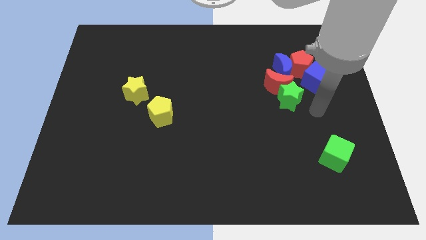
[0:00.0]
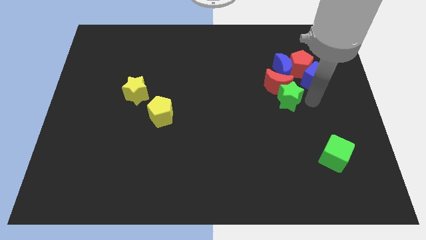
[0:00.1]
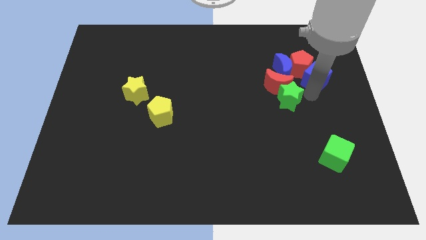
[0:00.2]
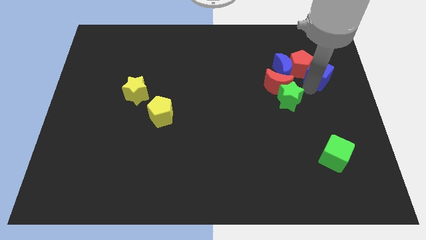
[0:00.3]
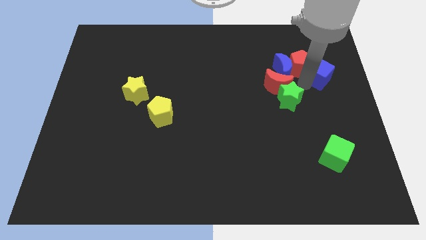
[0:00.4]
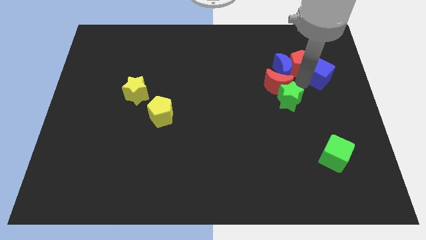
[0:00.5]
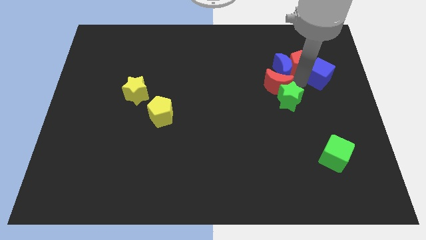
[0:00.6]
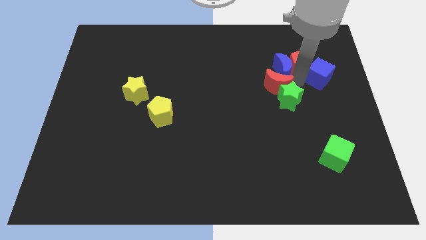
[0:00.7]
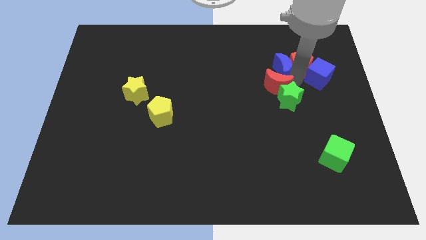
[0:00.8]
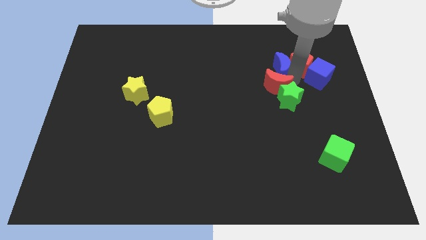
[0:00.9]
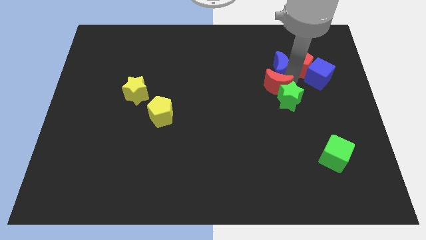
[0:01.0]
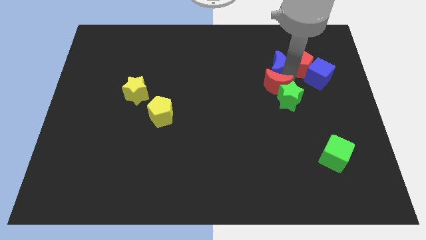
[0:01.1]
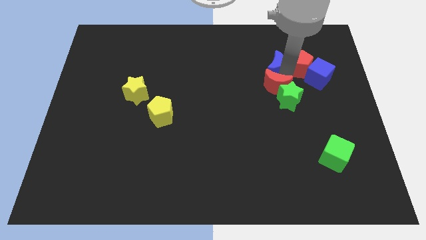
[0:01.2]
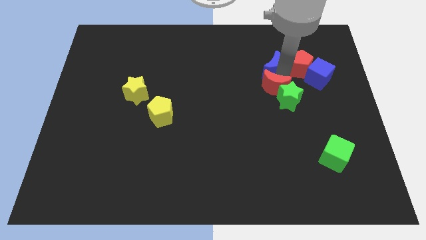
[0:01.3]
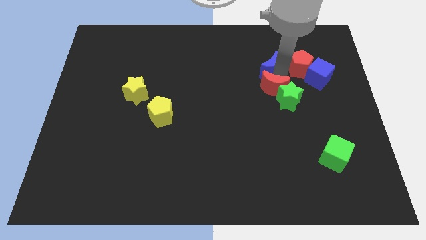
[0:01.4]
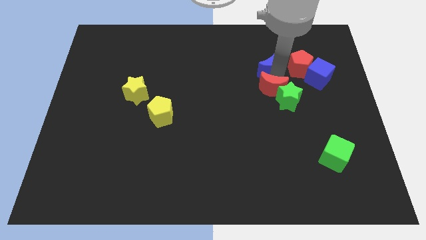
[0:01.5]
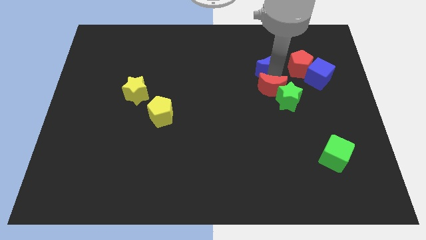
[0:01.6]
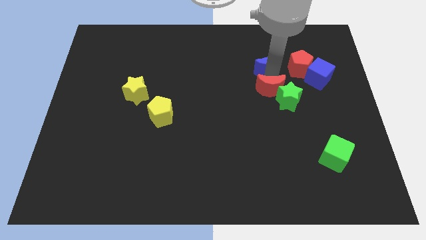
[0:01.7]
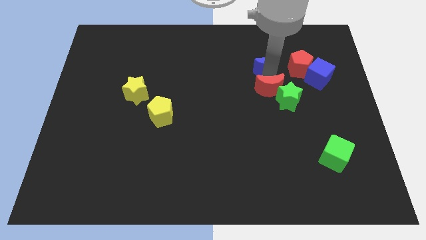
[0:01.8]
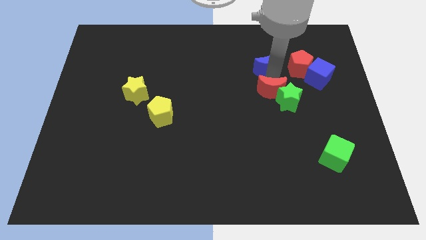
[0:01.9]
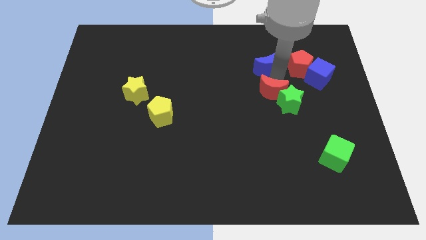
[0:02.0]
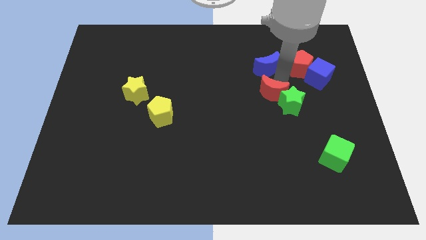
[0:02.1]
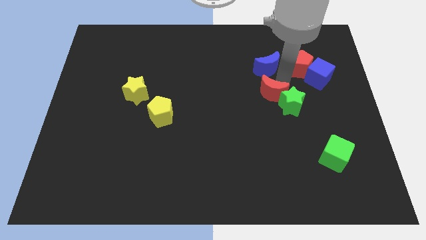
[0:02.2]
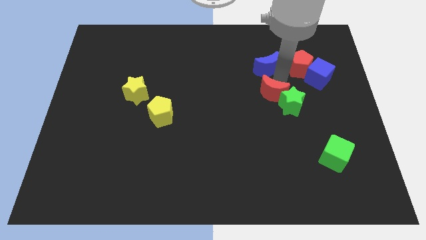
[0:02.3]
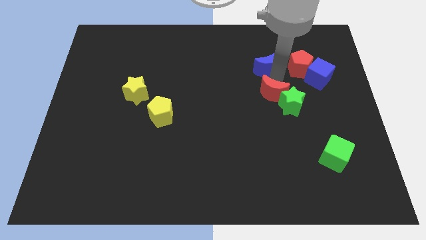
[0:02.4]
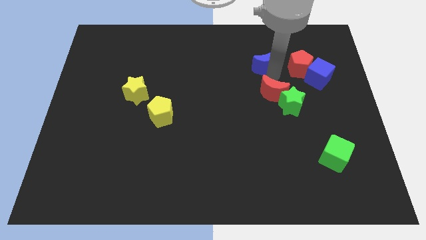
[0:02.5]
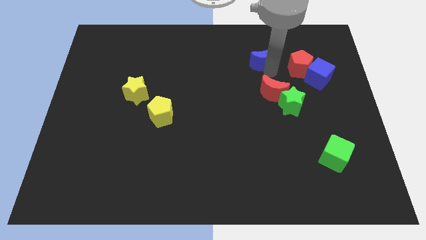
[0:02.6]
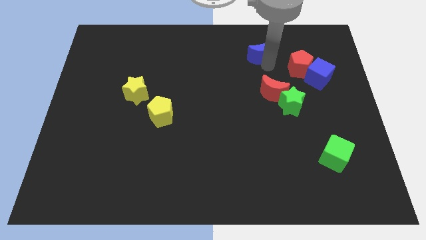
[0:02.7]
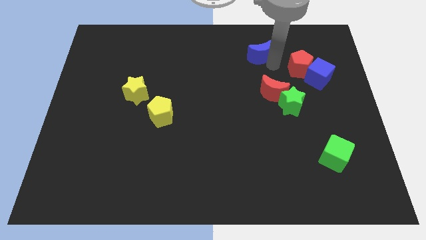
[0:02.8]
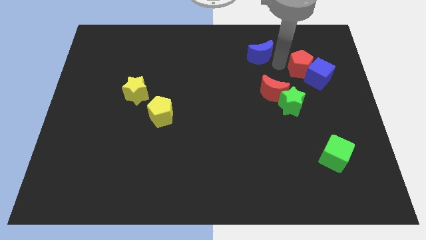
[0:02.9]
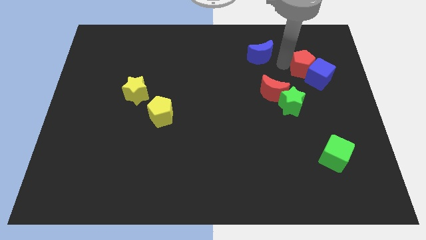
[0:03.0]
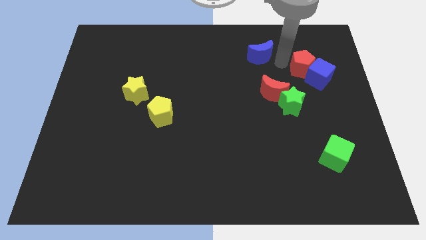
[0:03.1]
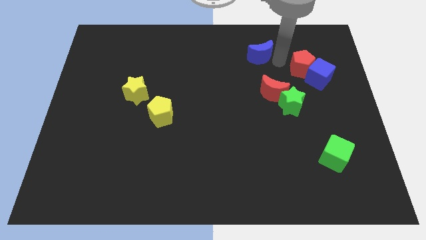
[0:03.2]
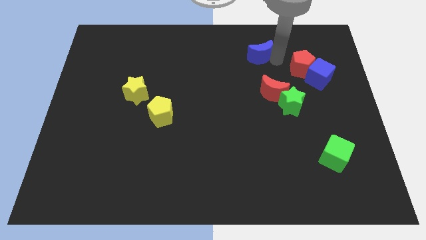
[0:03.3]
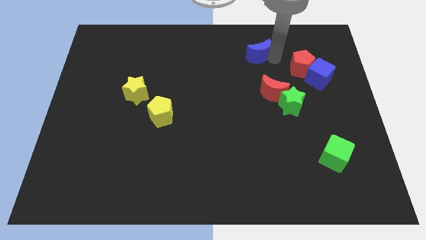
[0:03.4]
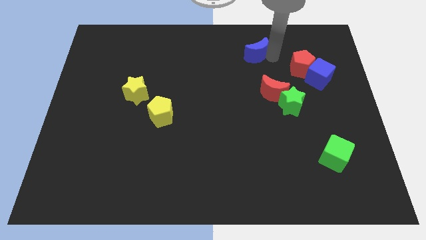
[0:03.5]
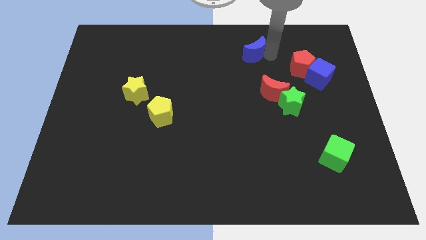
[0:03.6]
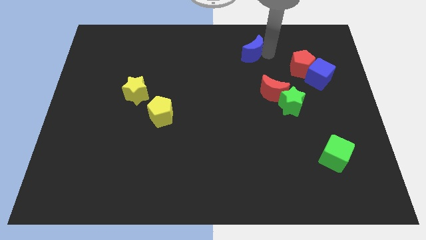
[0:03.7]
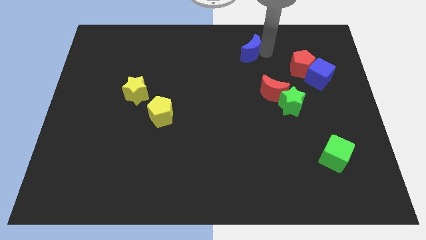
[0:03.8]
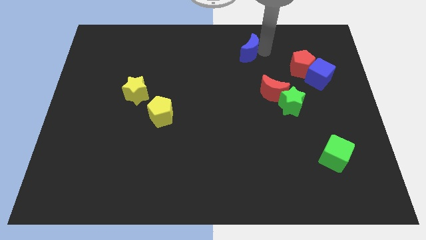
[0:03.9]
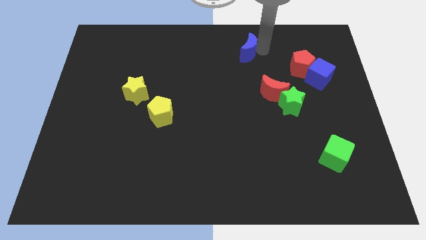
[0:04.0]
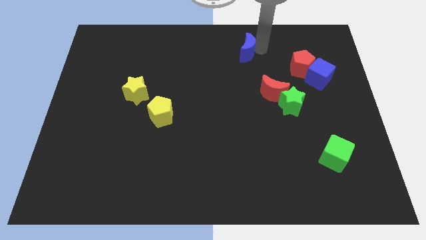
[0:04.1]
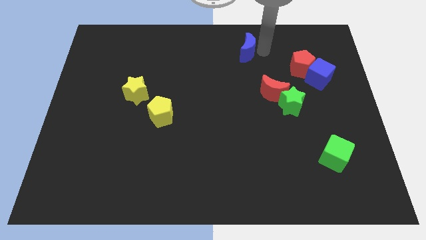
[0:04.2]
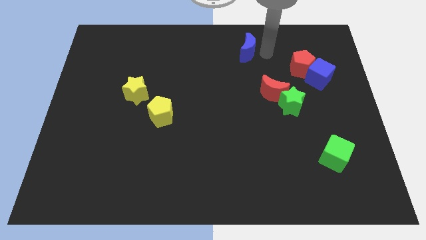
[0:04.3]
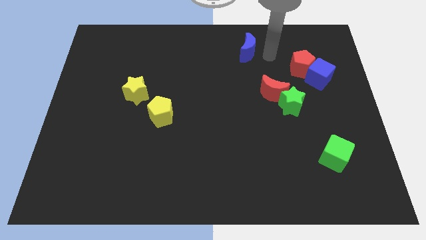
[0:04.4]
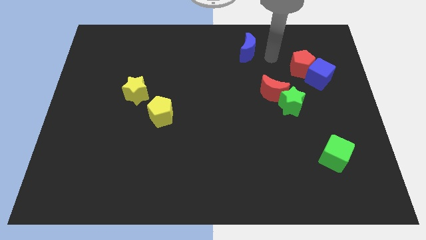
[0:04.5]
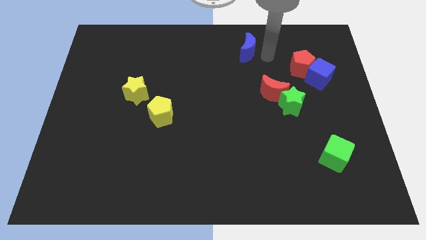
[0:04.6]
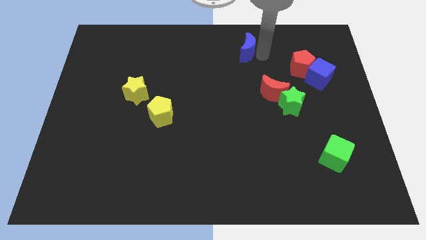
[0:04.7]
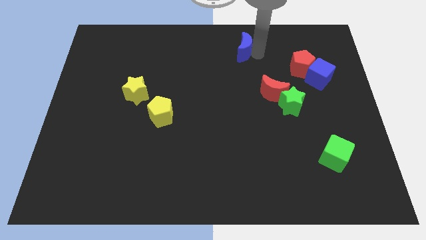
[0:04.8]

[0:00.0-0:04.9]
slide the blue moon to the towards your base

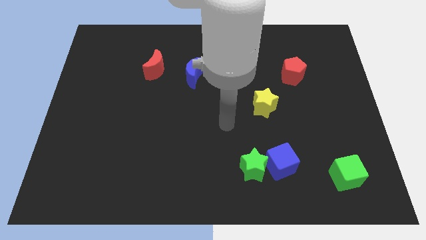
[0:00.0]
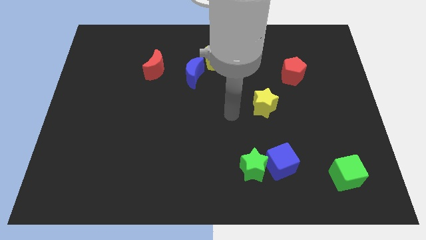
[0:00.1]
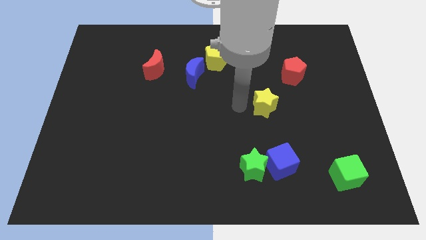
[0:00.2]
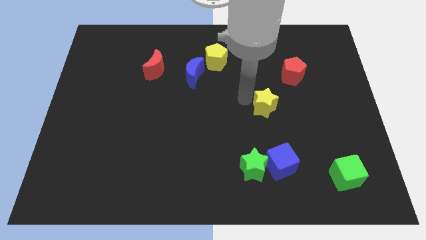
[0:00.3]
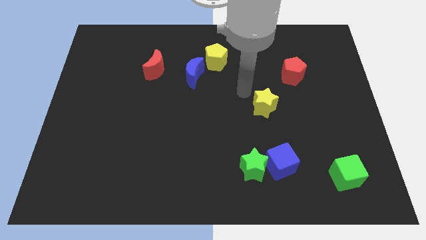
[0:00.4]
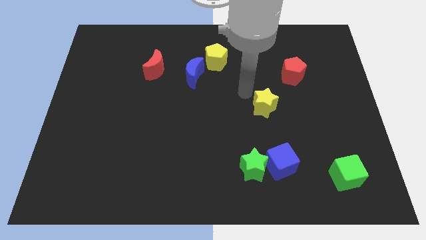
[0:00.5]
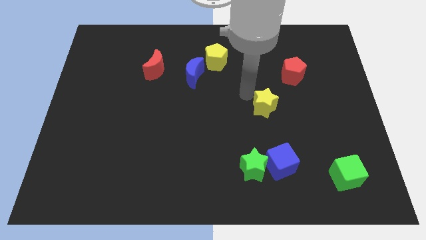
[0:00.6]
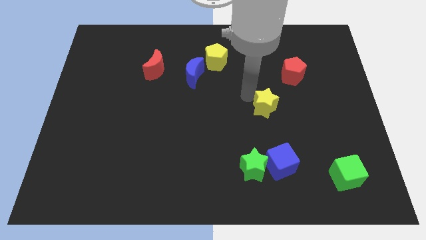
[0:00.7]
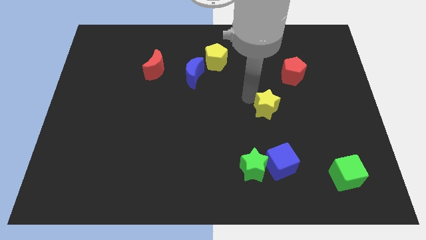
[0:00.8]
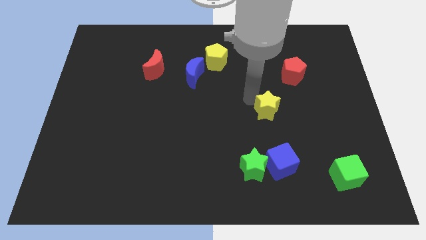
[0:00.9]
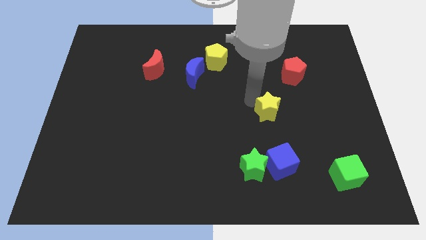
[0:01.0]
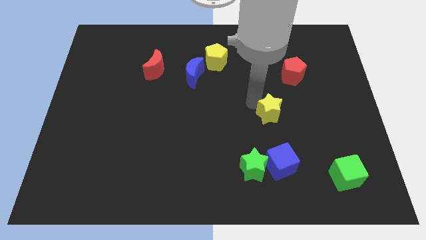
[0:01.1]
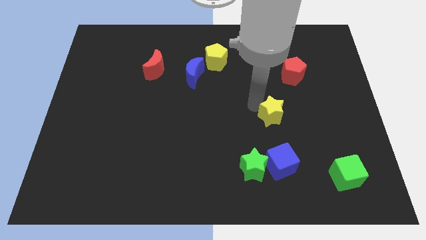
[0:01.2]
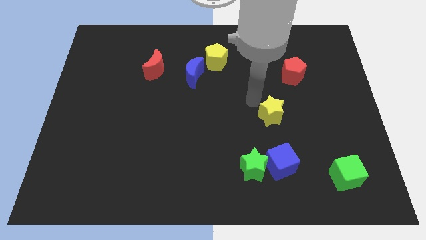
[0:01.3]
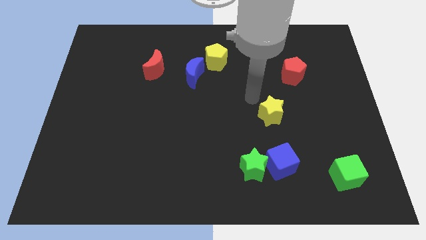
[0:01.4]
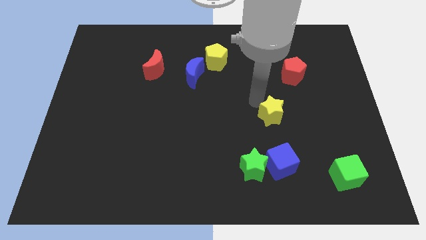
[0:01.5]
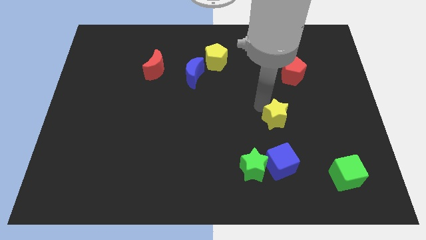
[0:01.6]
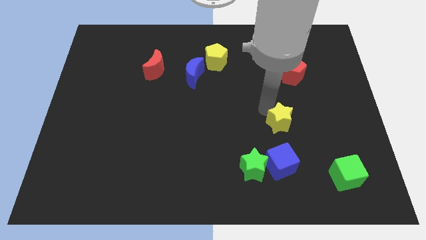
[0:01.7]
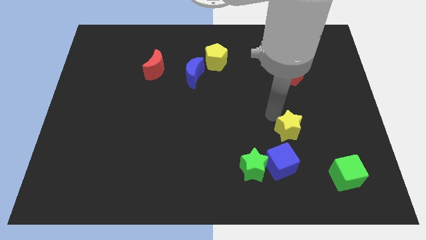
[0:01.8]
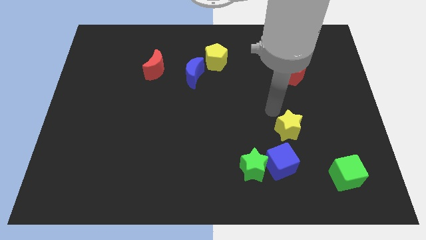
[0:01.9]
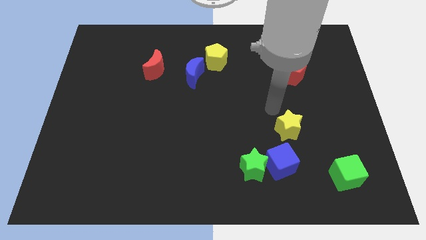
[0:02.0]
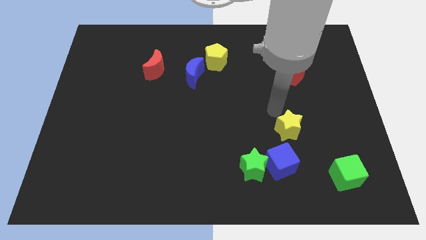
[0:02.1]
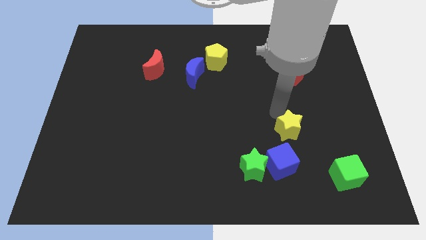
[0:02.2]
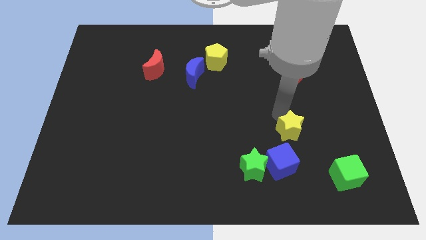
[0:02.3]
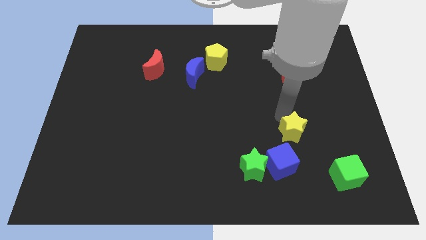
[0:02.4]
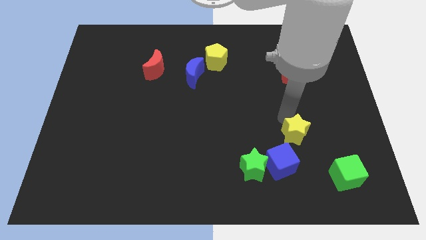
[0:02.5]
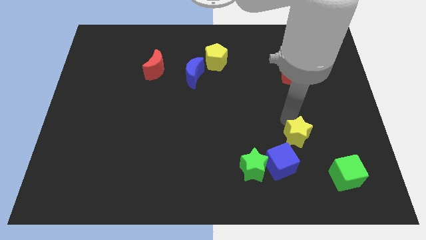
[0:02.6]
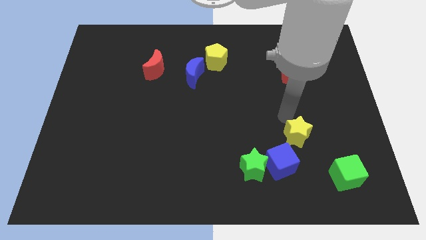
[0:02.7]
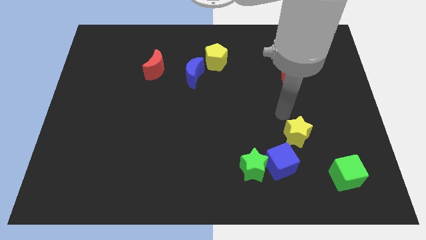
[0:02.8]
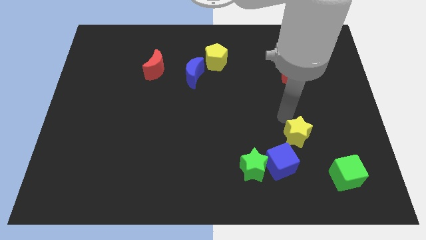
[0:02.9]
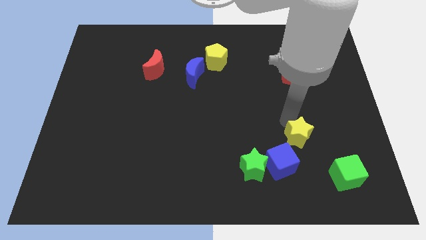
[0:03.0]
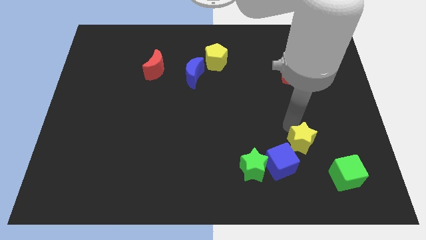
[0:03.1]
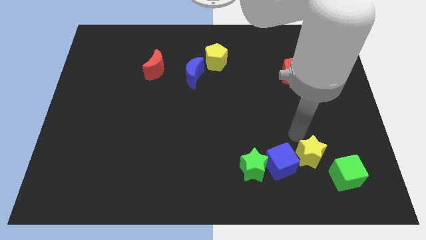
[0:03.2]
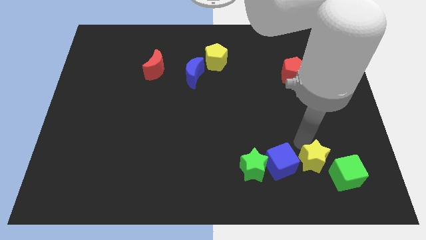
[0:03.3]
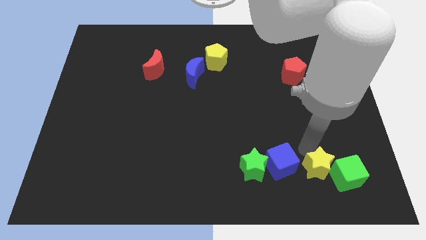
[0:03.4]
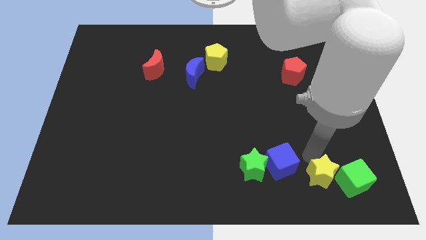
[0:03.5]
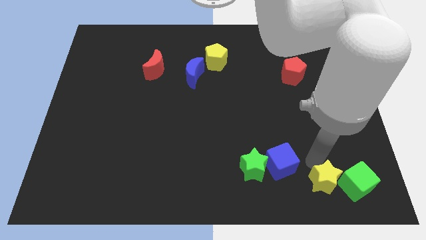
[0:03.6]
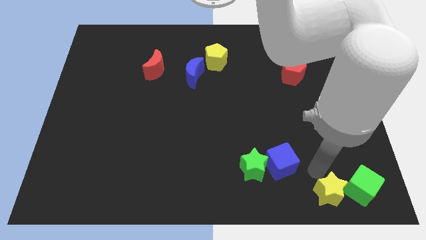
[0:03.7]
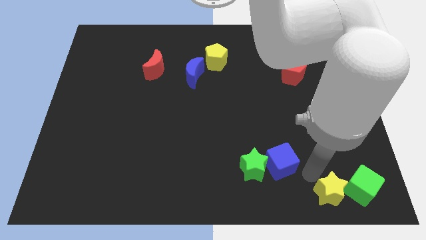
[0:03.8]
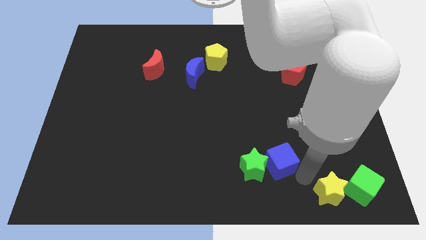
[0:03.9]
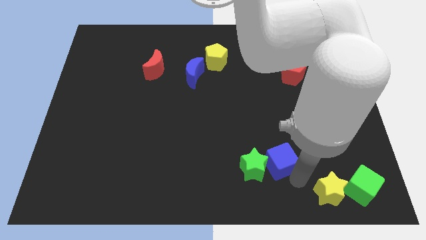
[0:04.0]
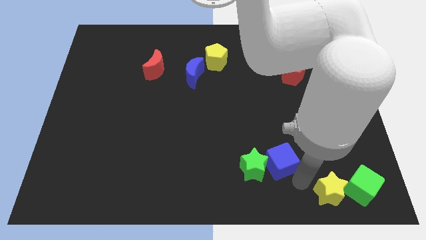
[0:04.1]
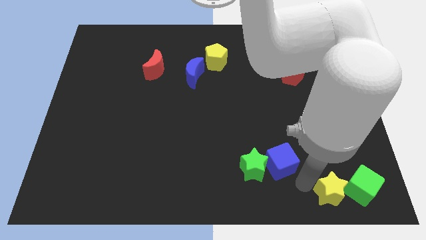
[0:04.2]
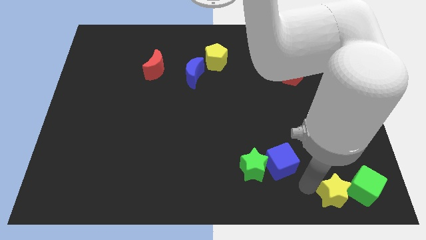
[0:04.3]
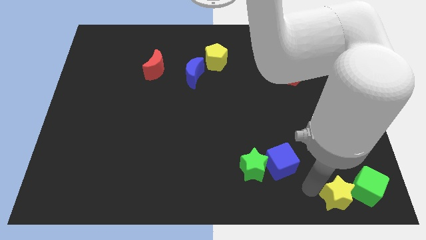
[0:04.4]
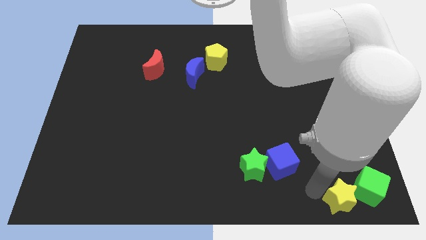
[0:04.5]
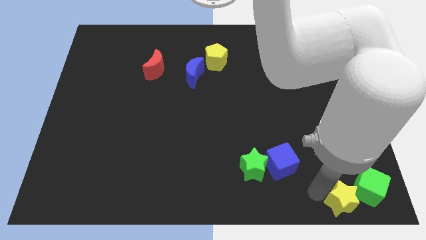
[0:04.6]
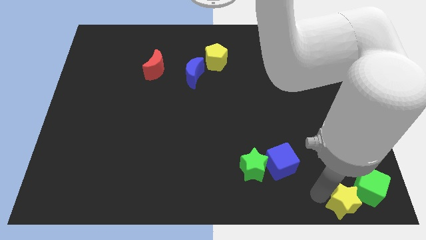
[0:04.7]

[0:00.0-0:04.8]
push the yellow star to the lower right corner
